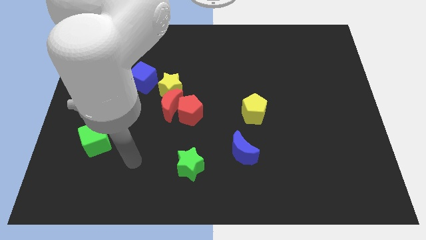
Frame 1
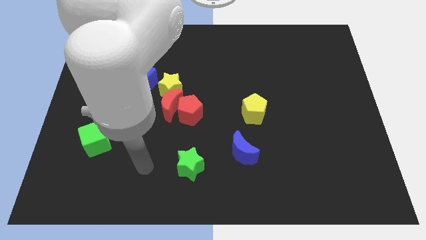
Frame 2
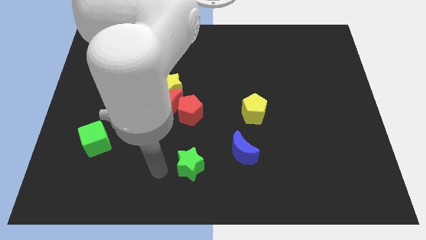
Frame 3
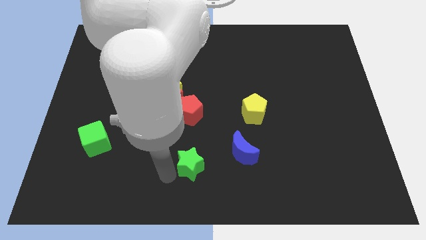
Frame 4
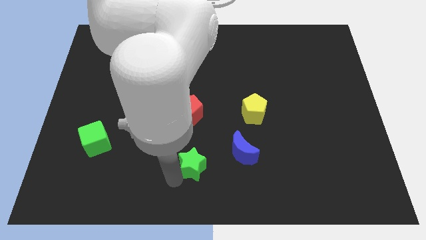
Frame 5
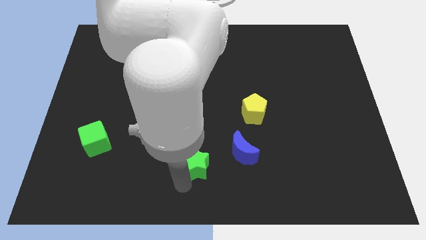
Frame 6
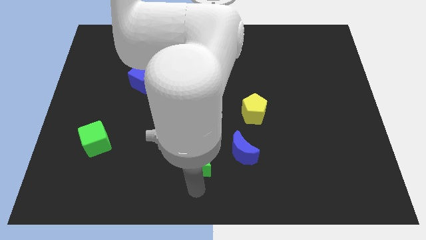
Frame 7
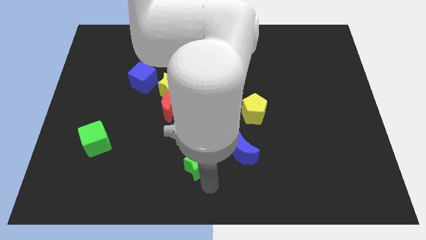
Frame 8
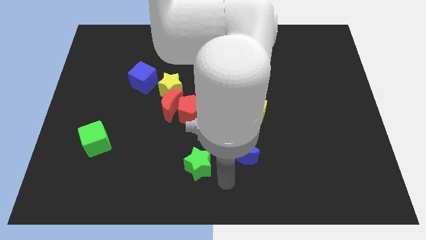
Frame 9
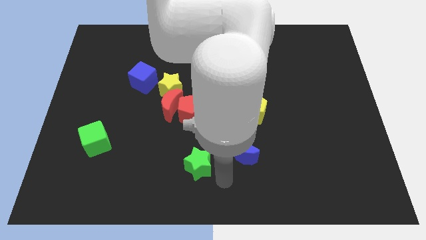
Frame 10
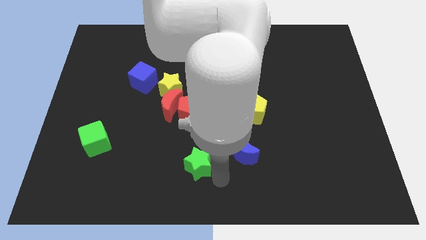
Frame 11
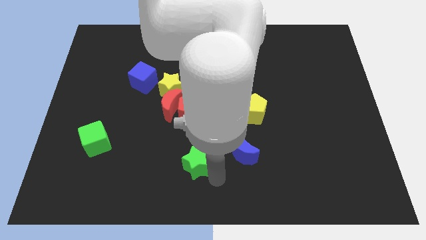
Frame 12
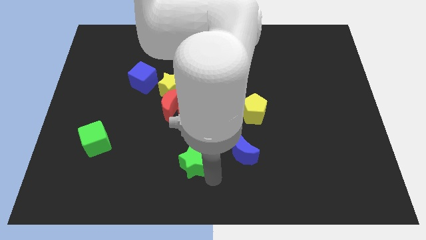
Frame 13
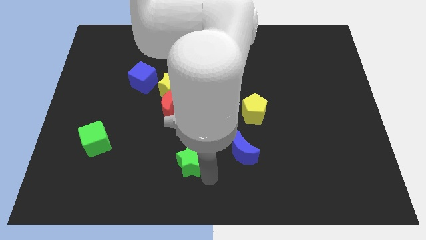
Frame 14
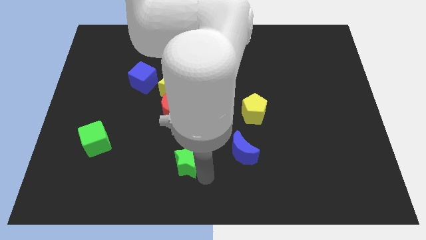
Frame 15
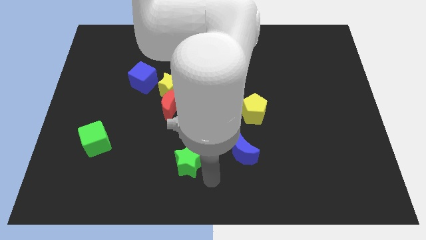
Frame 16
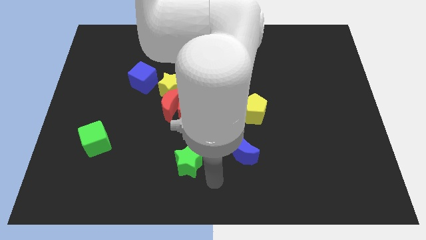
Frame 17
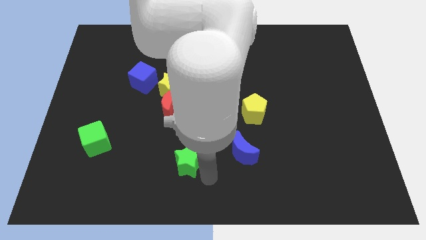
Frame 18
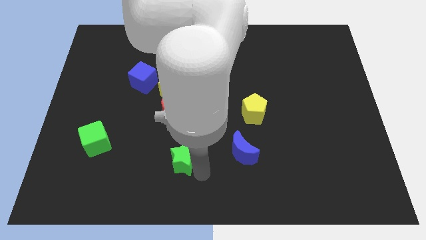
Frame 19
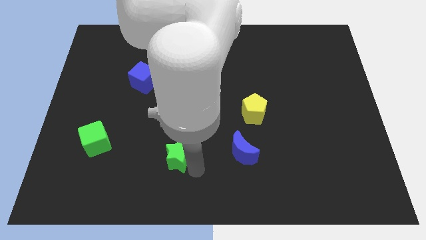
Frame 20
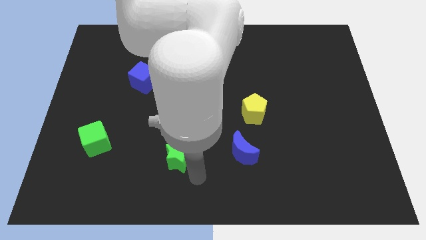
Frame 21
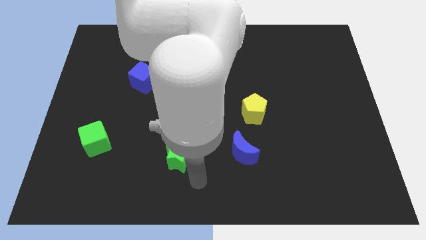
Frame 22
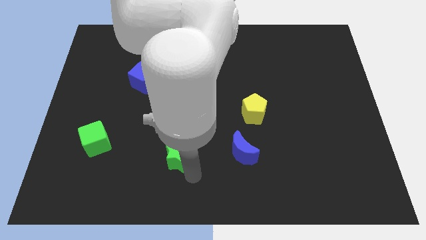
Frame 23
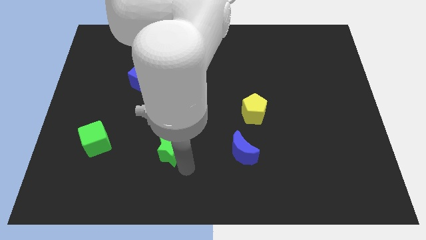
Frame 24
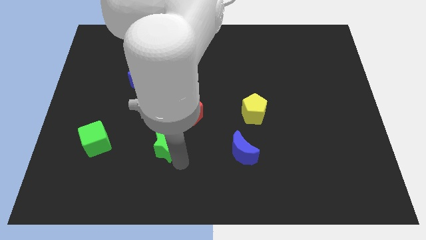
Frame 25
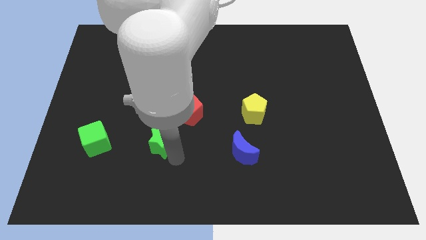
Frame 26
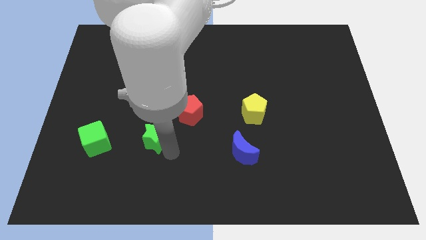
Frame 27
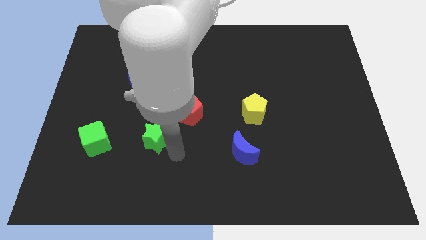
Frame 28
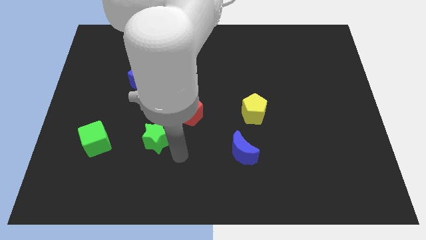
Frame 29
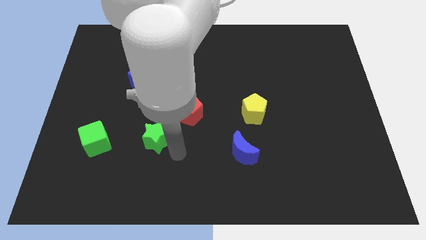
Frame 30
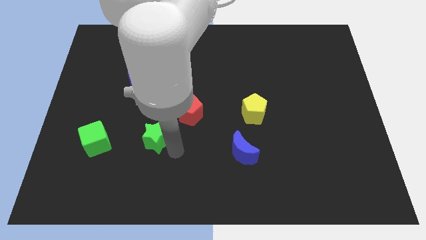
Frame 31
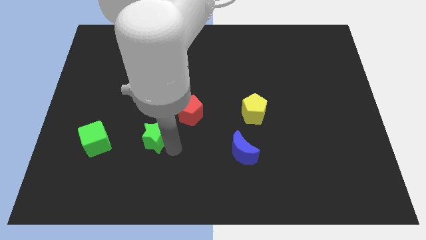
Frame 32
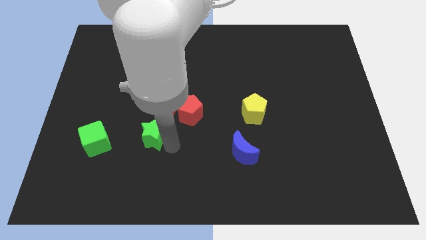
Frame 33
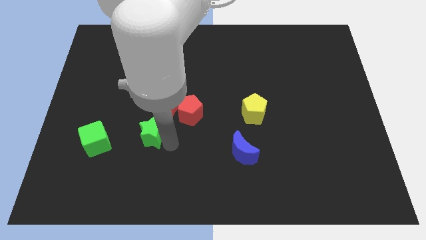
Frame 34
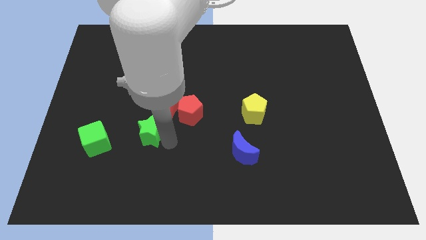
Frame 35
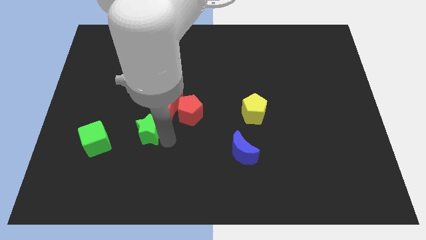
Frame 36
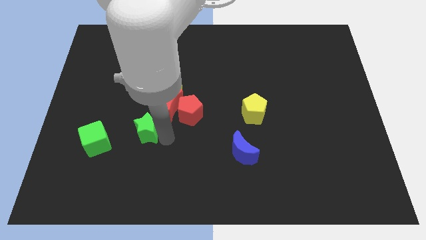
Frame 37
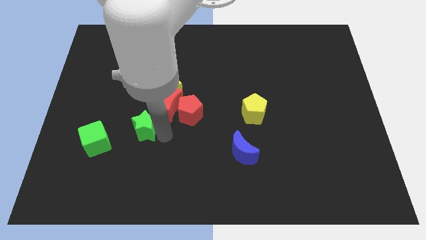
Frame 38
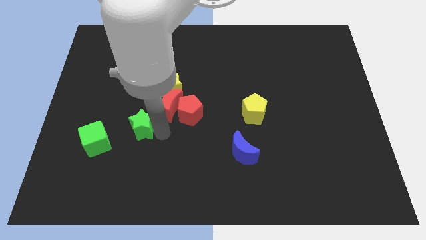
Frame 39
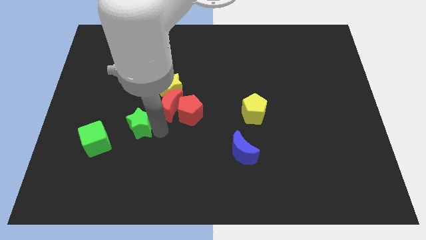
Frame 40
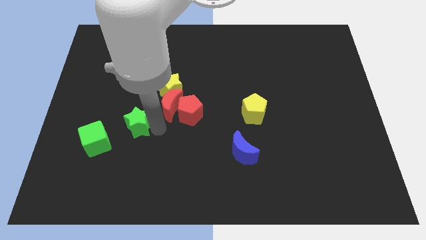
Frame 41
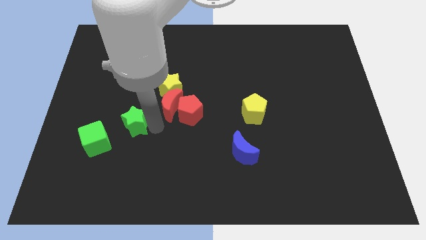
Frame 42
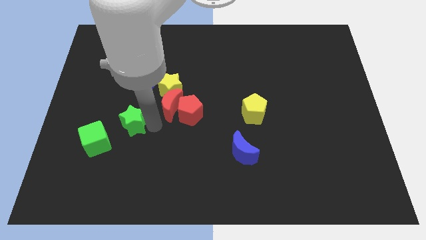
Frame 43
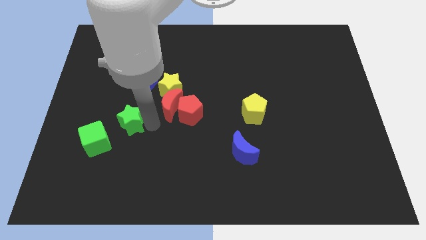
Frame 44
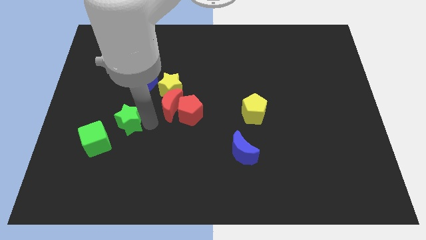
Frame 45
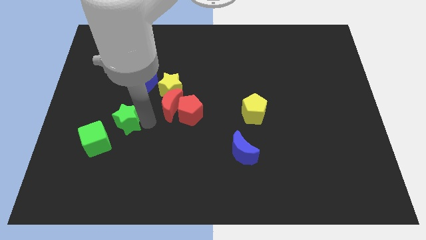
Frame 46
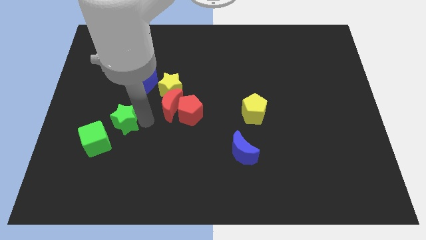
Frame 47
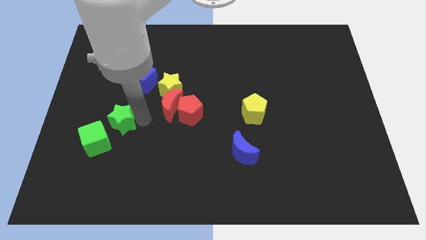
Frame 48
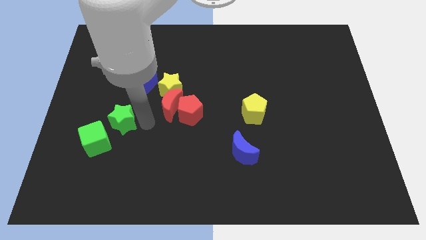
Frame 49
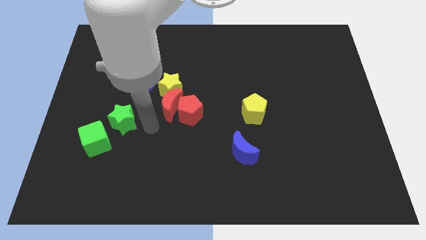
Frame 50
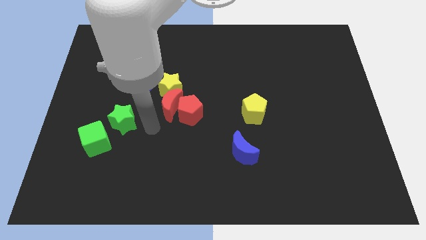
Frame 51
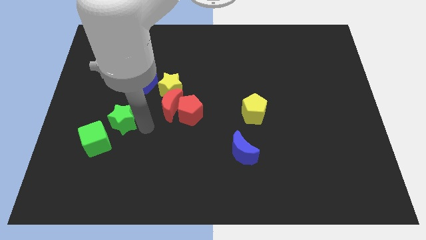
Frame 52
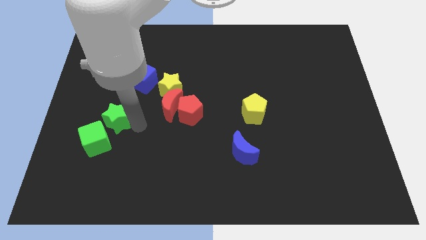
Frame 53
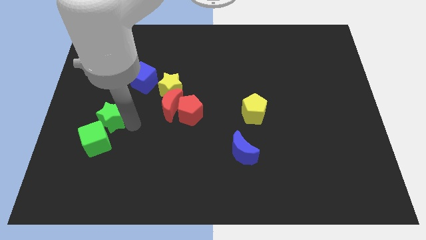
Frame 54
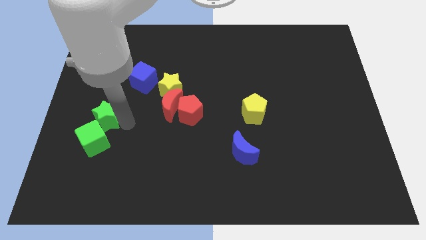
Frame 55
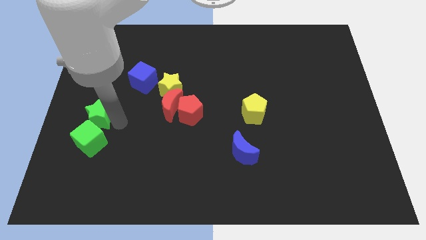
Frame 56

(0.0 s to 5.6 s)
push the green star to the center left

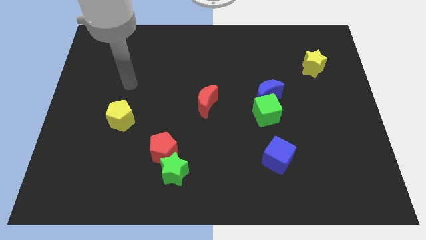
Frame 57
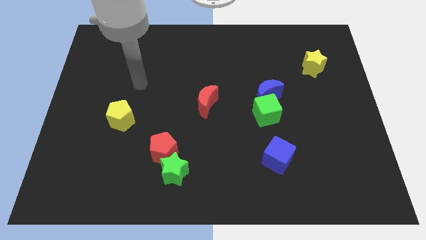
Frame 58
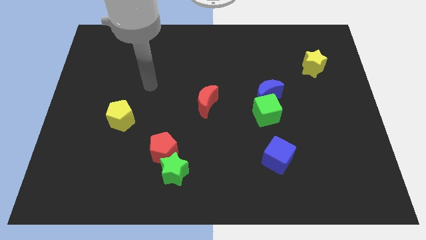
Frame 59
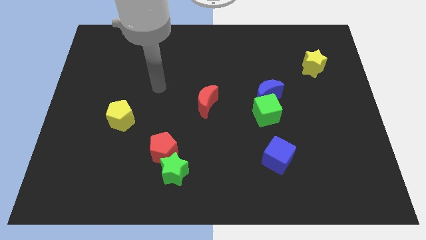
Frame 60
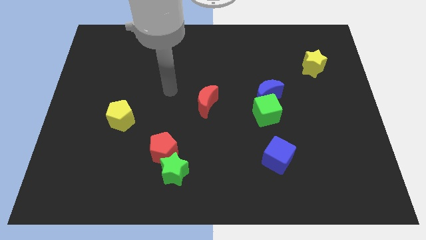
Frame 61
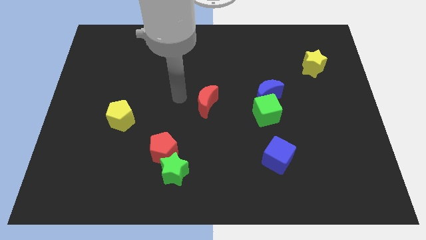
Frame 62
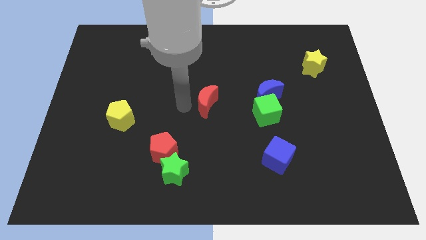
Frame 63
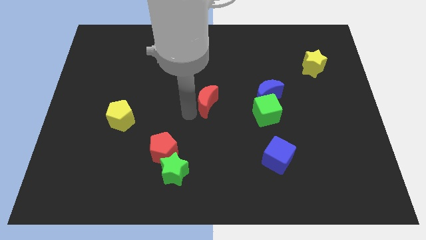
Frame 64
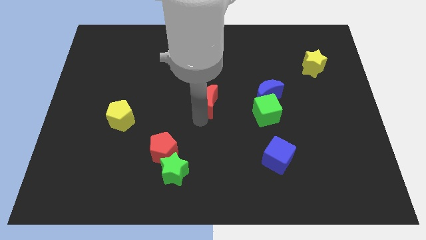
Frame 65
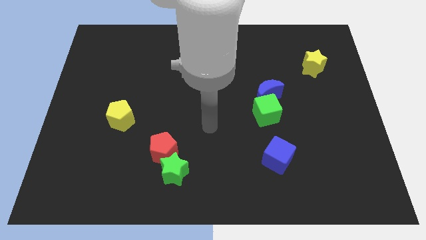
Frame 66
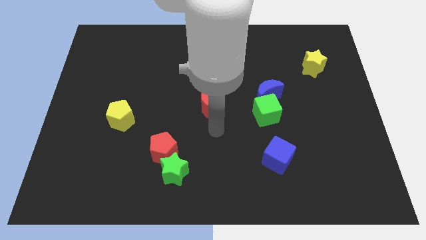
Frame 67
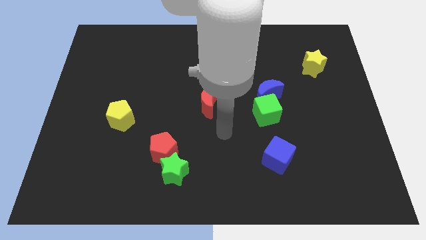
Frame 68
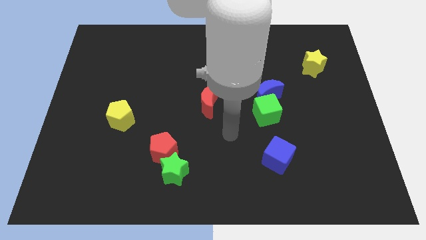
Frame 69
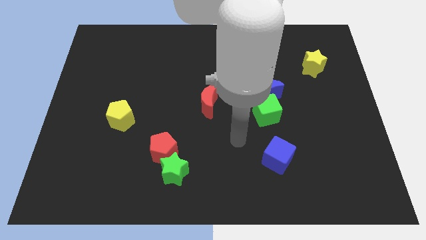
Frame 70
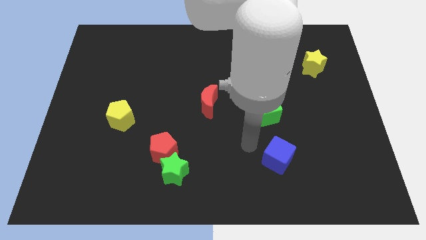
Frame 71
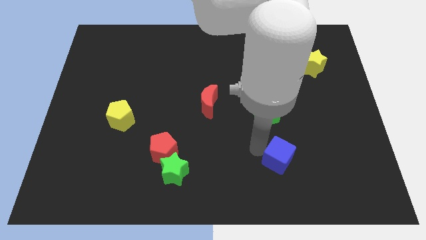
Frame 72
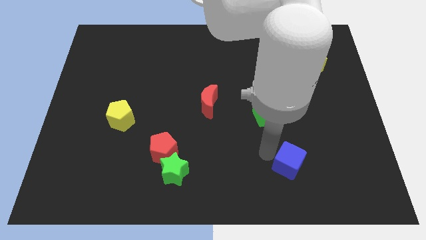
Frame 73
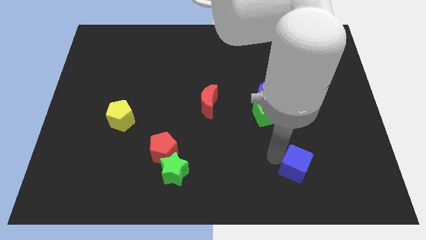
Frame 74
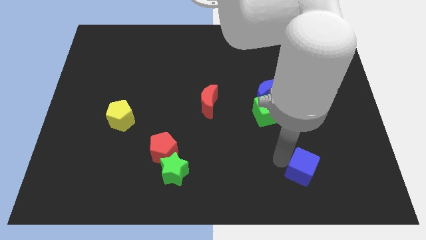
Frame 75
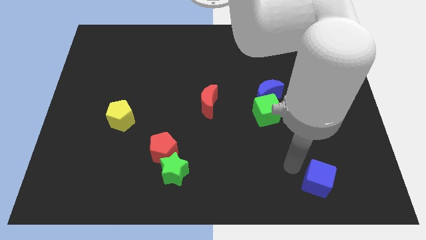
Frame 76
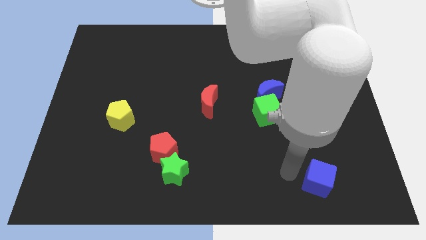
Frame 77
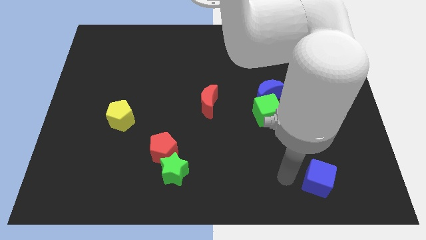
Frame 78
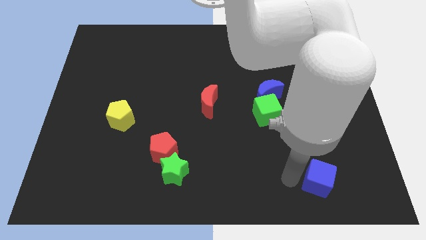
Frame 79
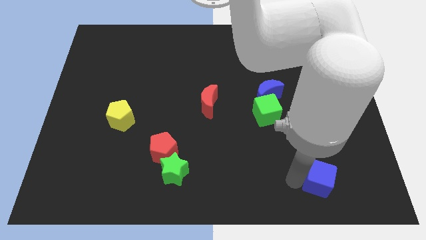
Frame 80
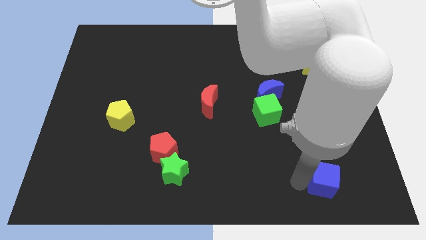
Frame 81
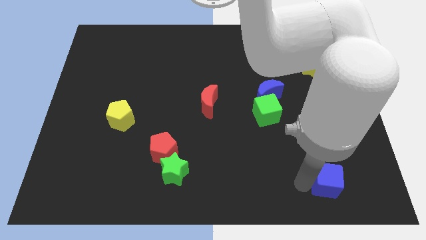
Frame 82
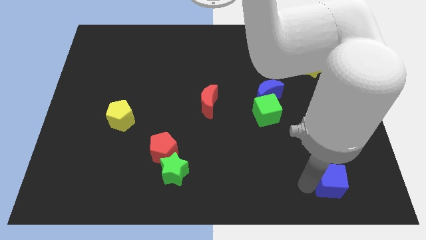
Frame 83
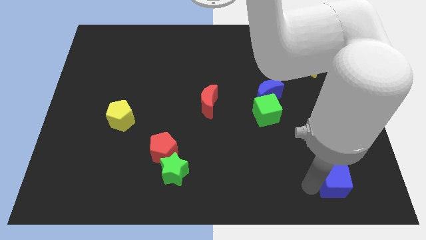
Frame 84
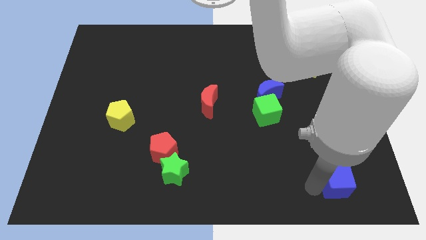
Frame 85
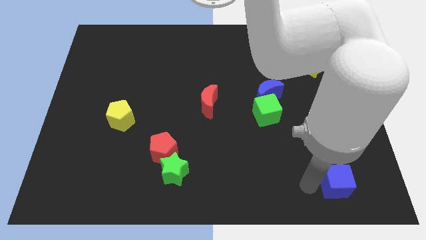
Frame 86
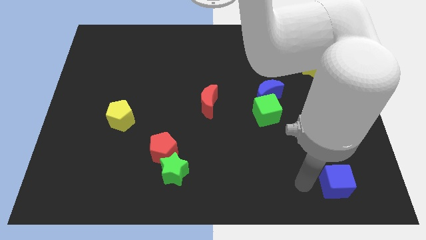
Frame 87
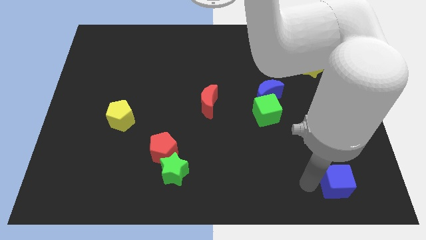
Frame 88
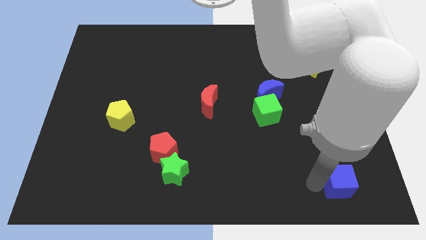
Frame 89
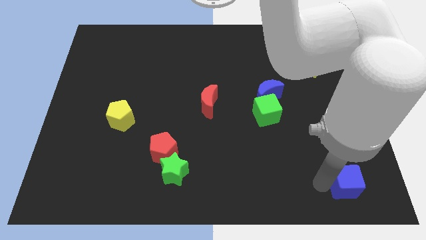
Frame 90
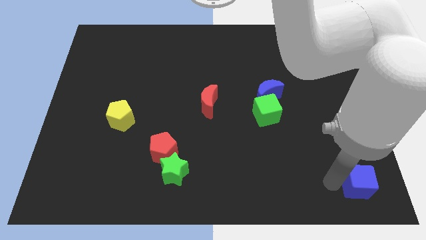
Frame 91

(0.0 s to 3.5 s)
push the blue cube to the bottom right
